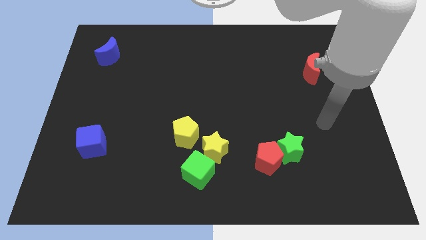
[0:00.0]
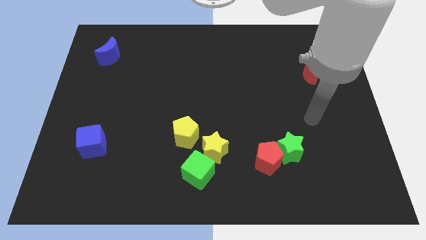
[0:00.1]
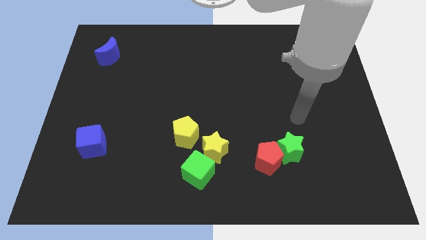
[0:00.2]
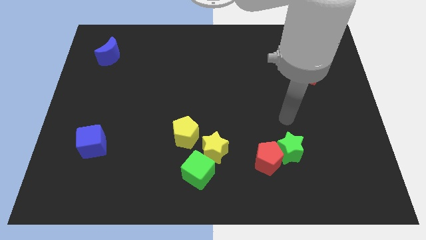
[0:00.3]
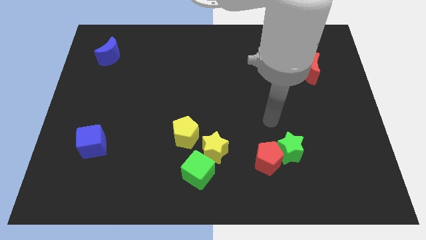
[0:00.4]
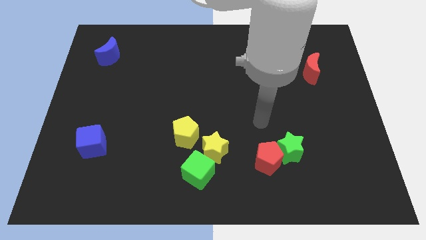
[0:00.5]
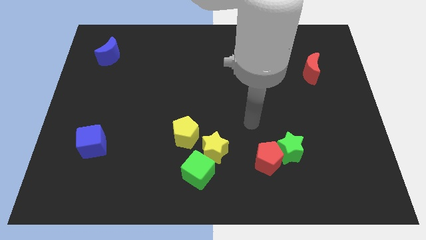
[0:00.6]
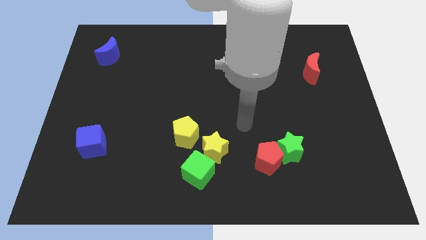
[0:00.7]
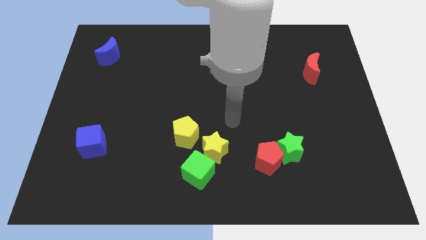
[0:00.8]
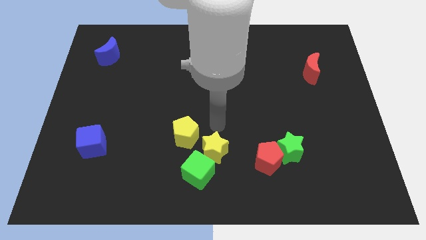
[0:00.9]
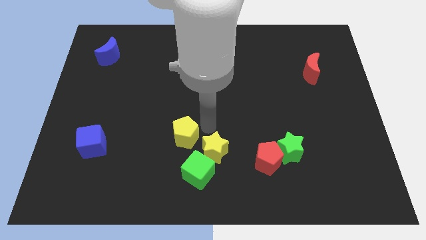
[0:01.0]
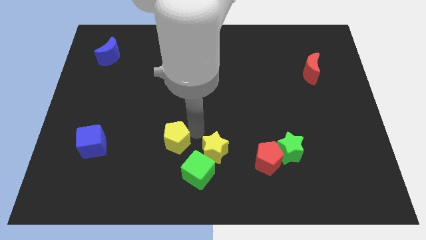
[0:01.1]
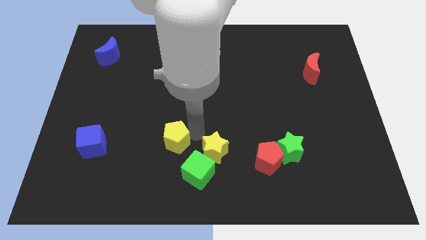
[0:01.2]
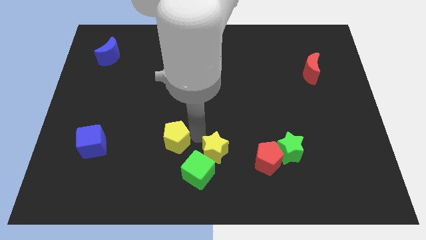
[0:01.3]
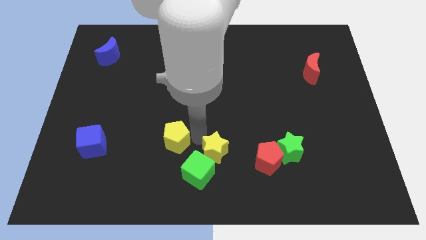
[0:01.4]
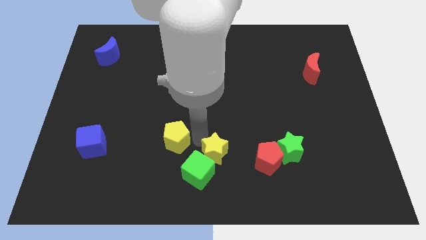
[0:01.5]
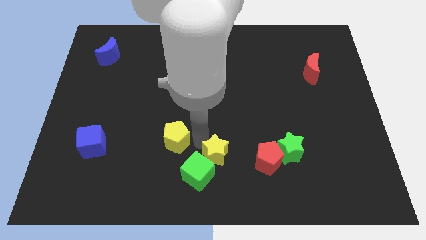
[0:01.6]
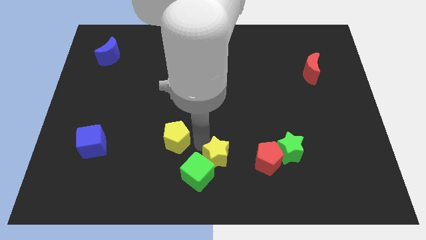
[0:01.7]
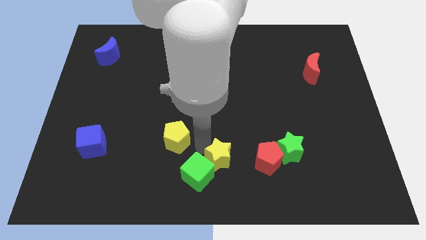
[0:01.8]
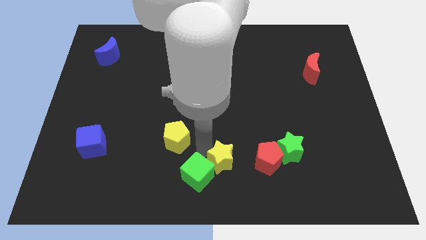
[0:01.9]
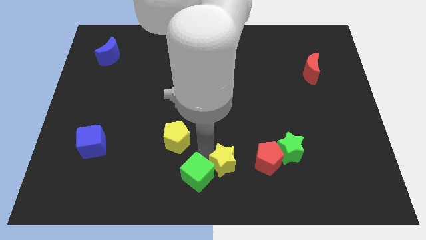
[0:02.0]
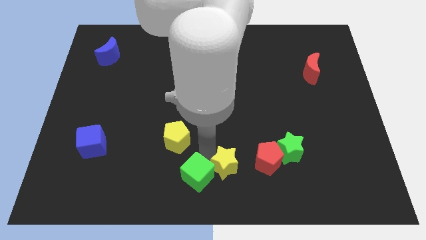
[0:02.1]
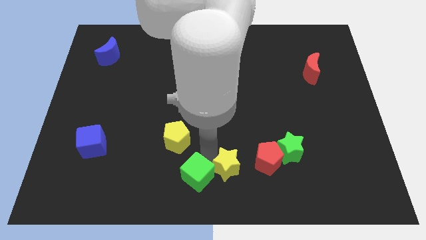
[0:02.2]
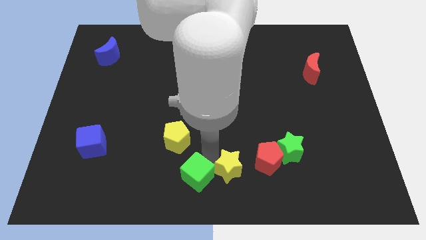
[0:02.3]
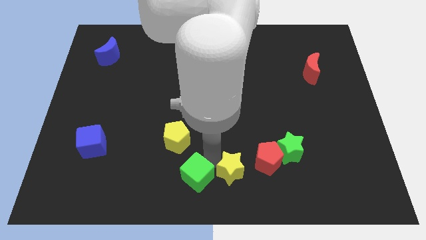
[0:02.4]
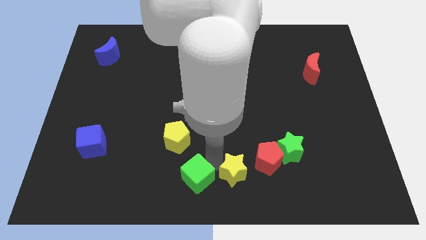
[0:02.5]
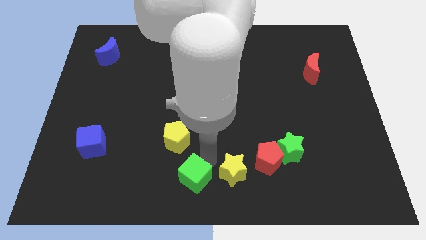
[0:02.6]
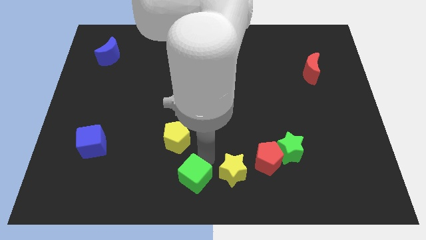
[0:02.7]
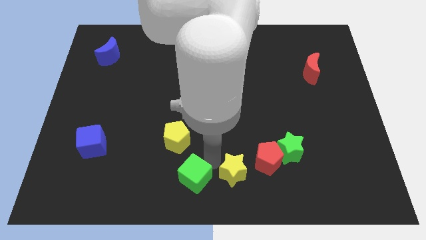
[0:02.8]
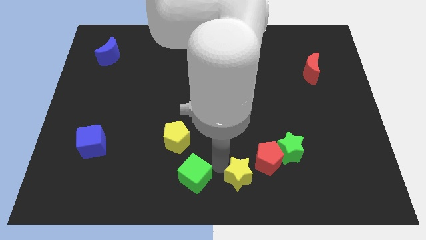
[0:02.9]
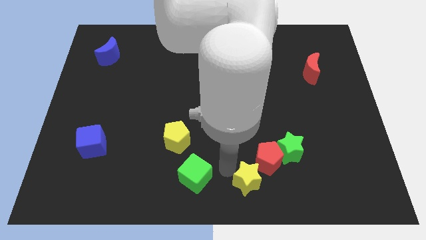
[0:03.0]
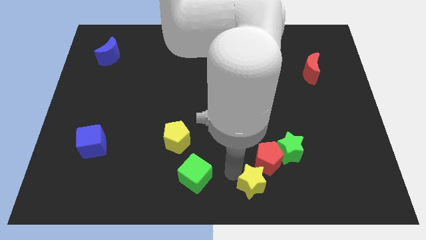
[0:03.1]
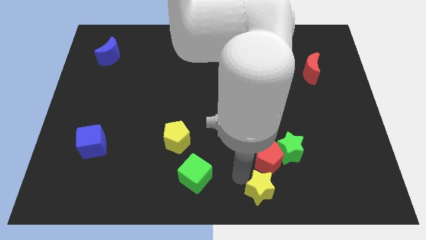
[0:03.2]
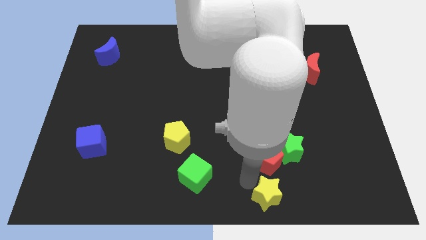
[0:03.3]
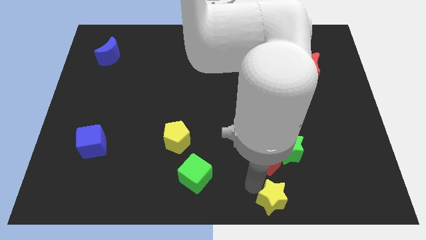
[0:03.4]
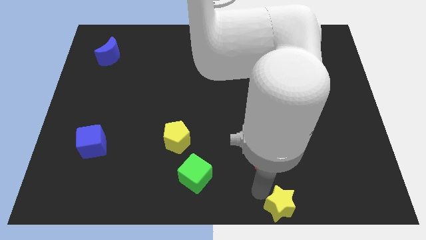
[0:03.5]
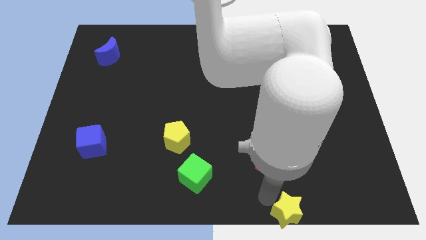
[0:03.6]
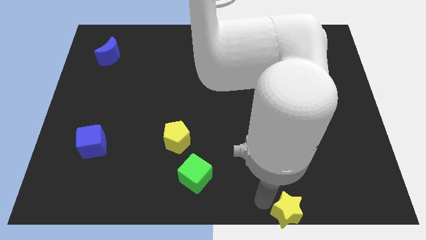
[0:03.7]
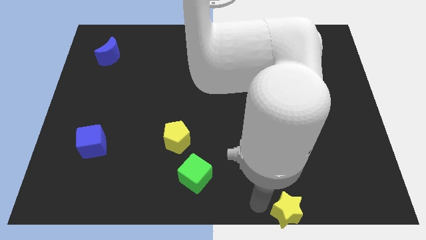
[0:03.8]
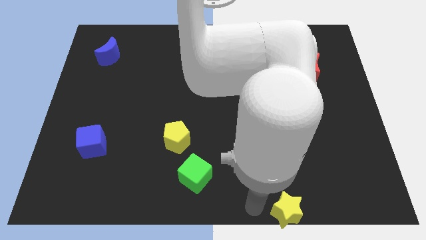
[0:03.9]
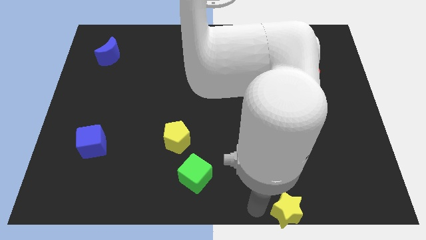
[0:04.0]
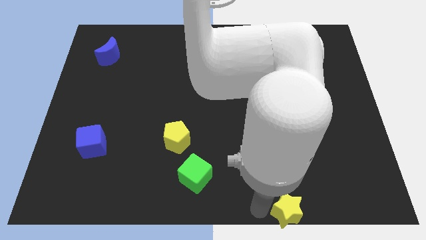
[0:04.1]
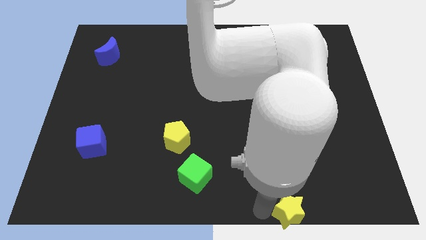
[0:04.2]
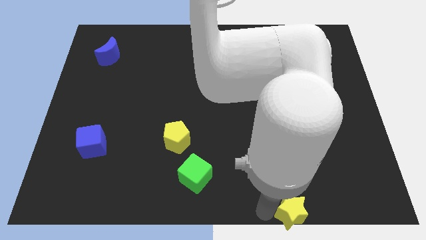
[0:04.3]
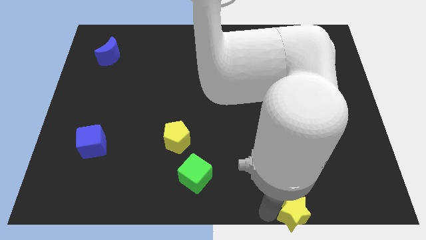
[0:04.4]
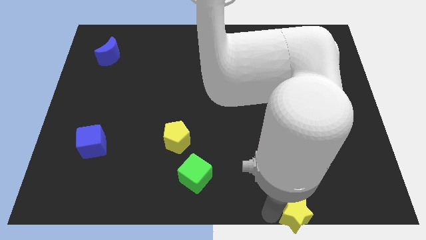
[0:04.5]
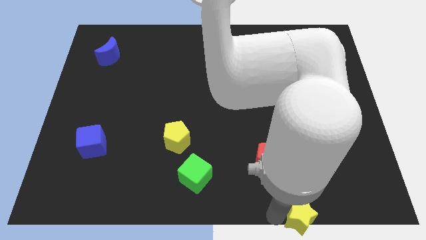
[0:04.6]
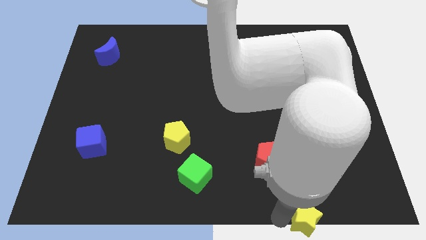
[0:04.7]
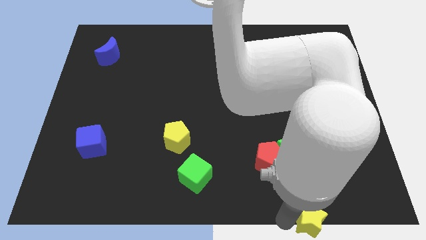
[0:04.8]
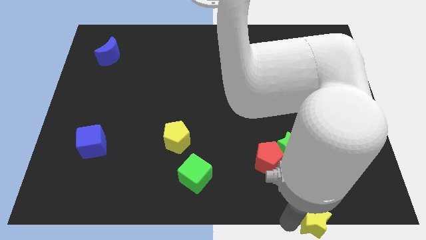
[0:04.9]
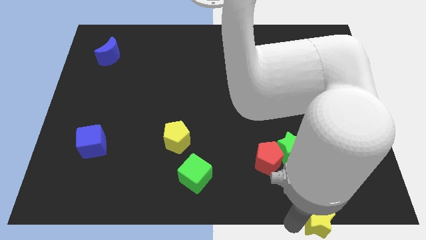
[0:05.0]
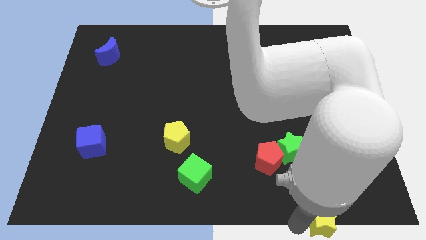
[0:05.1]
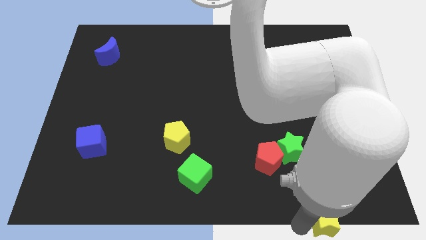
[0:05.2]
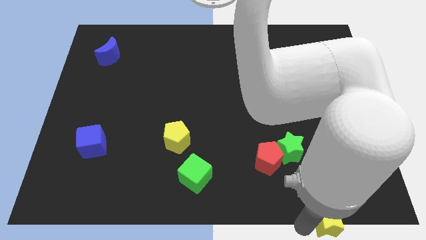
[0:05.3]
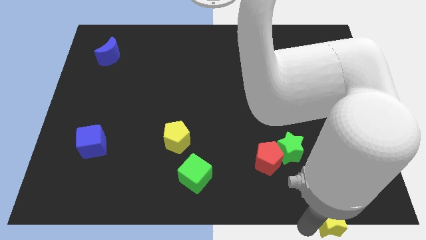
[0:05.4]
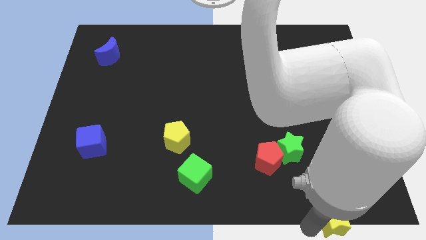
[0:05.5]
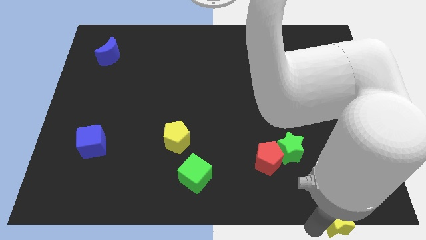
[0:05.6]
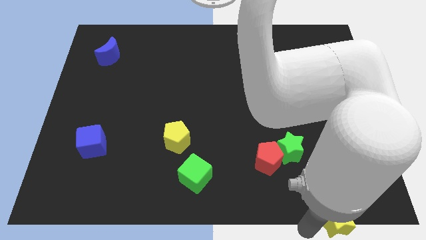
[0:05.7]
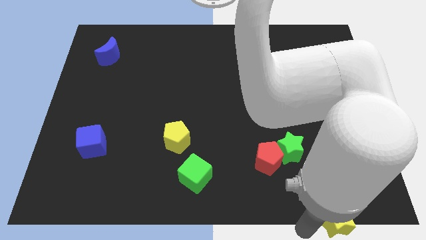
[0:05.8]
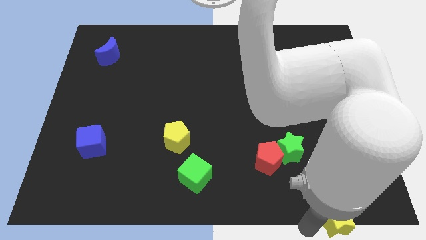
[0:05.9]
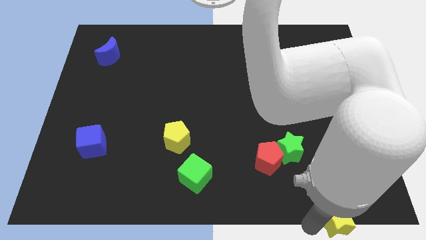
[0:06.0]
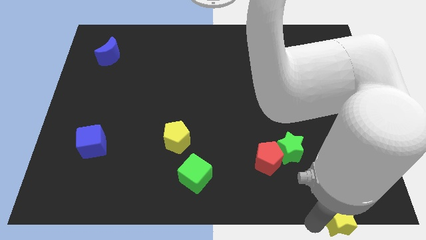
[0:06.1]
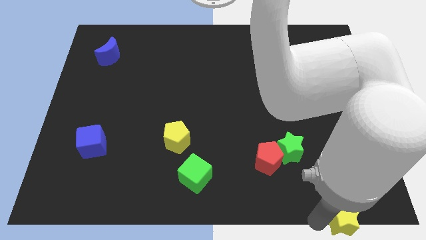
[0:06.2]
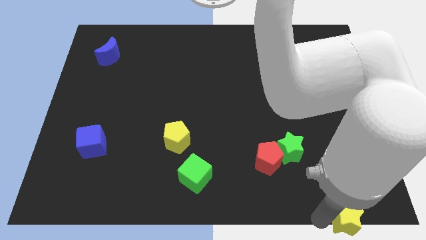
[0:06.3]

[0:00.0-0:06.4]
put the yellow star to the bottom right of the board

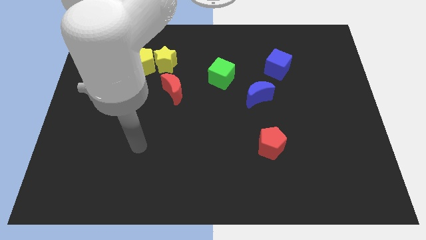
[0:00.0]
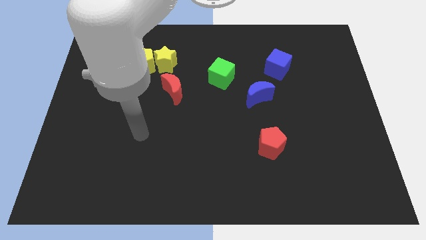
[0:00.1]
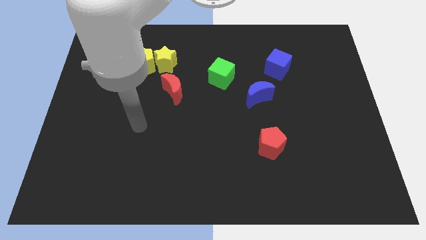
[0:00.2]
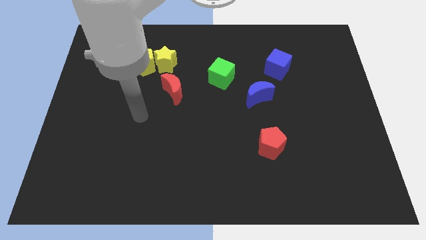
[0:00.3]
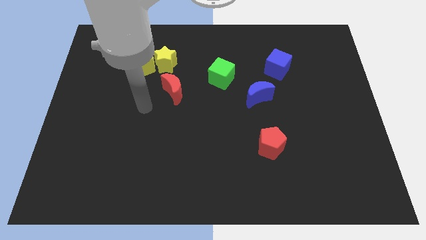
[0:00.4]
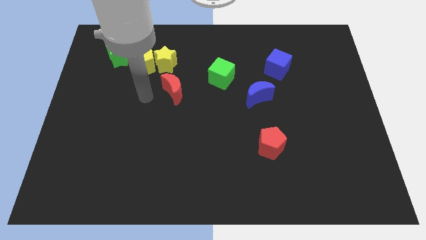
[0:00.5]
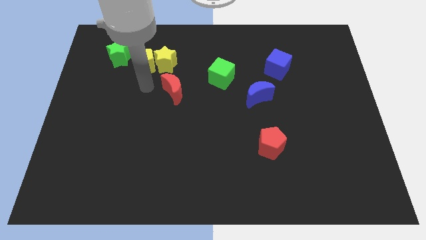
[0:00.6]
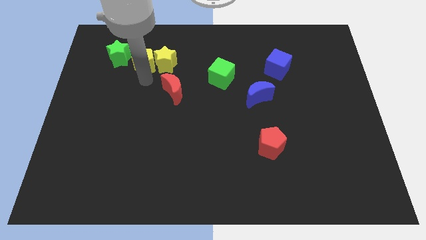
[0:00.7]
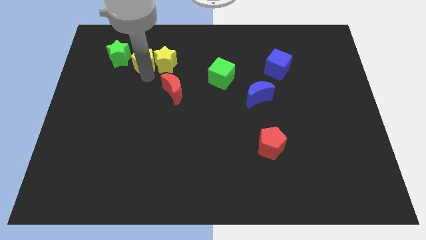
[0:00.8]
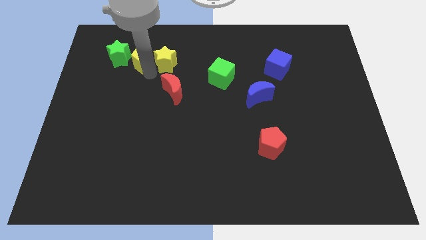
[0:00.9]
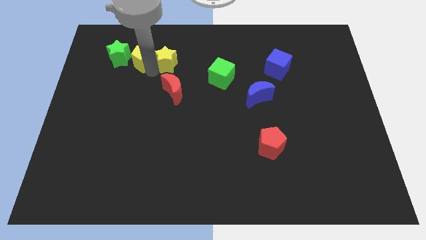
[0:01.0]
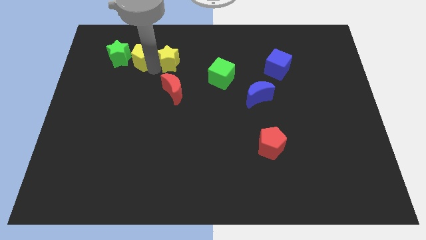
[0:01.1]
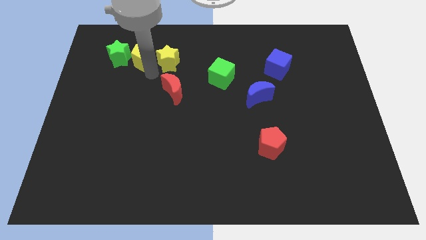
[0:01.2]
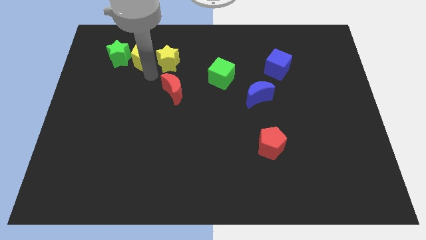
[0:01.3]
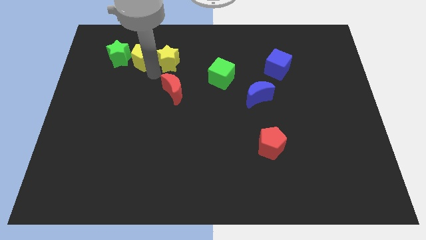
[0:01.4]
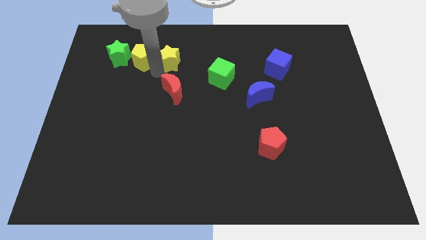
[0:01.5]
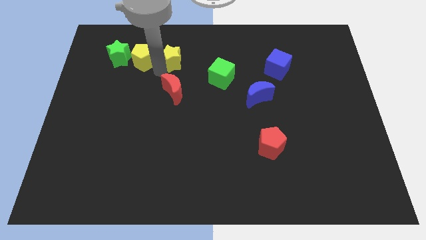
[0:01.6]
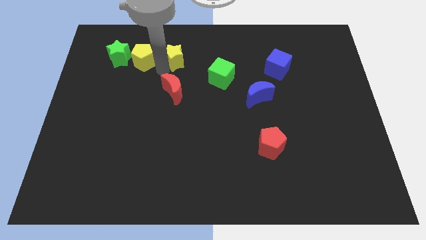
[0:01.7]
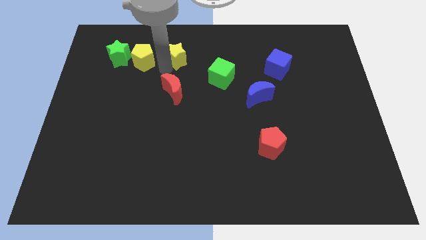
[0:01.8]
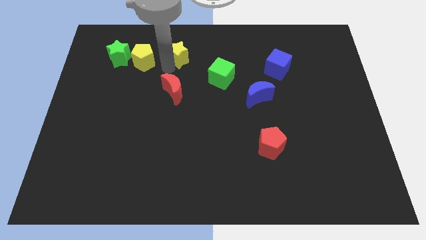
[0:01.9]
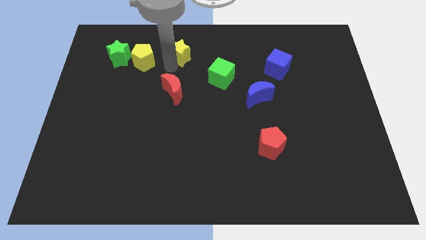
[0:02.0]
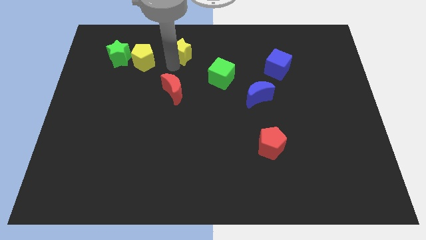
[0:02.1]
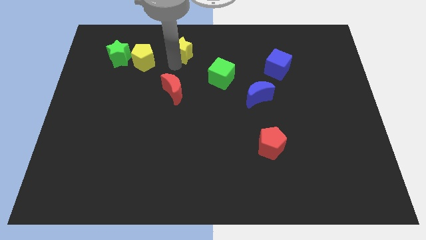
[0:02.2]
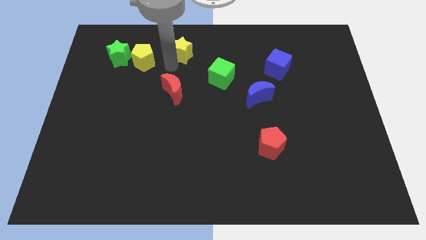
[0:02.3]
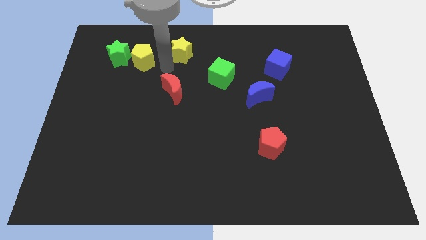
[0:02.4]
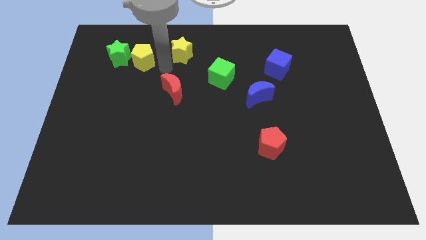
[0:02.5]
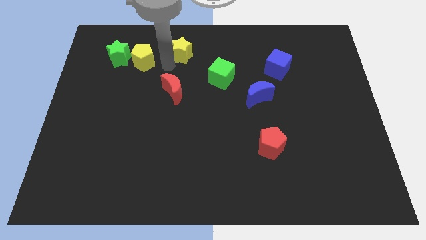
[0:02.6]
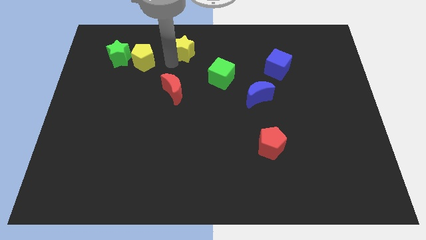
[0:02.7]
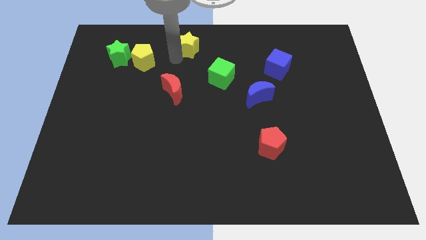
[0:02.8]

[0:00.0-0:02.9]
put the yellow star to the top
